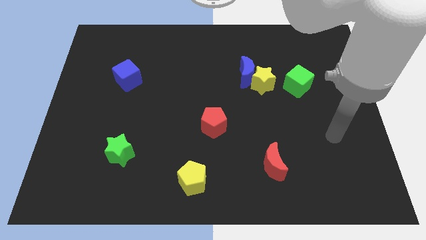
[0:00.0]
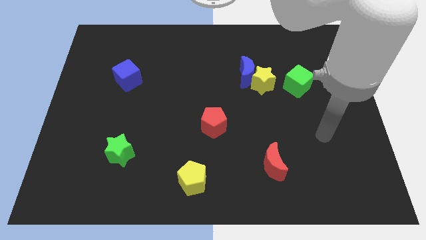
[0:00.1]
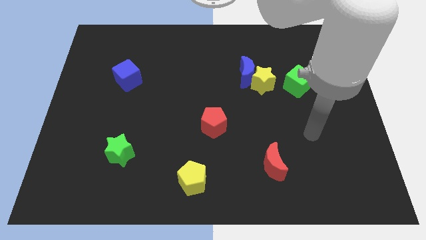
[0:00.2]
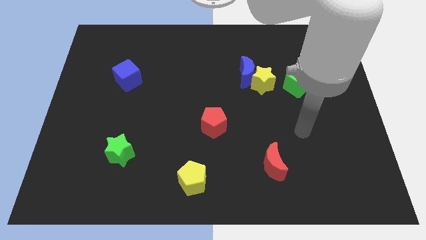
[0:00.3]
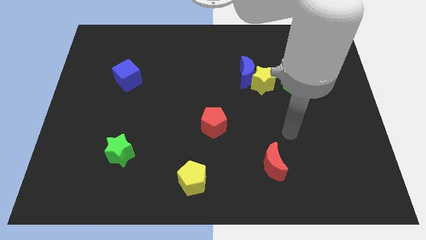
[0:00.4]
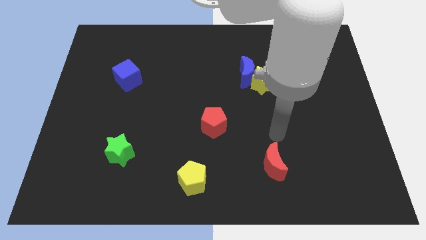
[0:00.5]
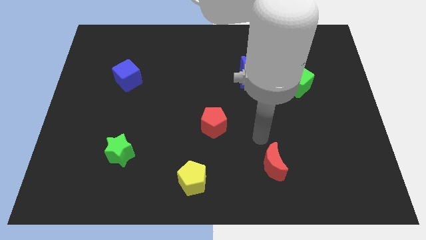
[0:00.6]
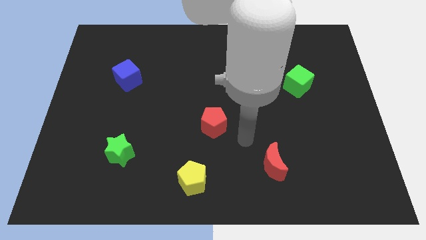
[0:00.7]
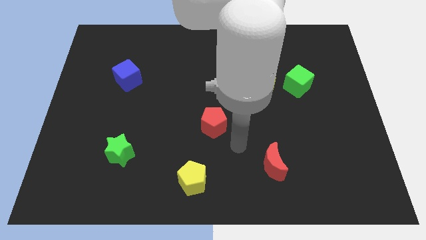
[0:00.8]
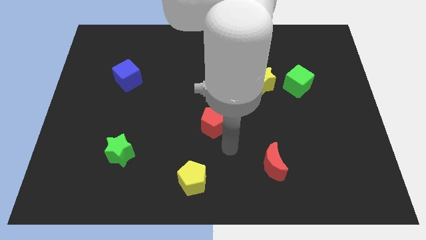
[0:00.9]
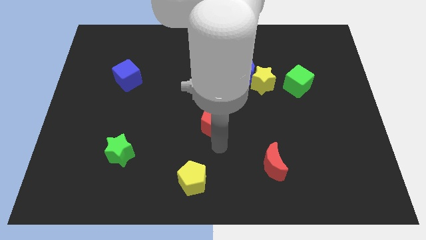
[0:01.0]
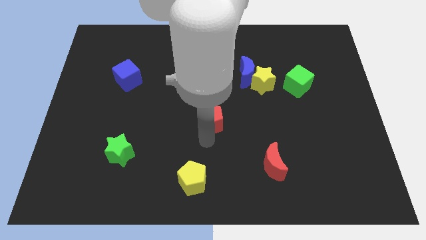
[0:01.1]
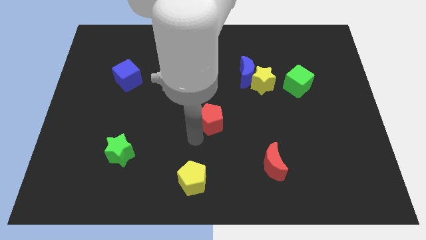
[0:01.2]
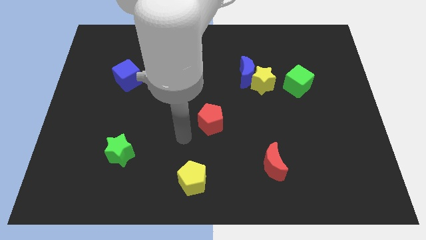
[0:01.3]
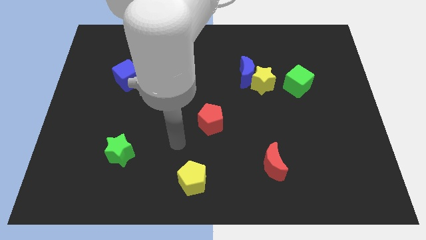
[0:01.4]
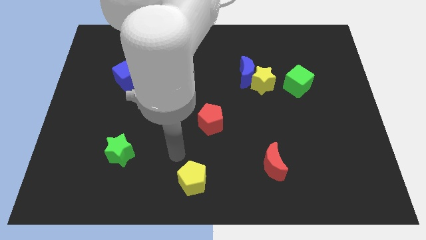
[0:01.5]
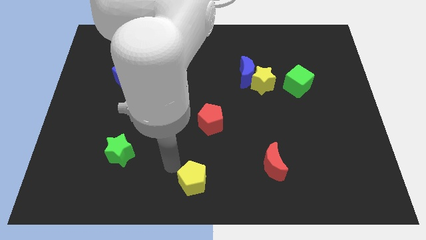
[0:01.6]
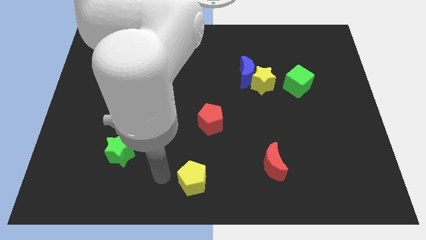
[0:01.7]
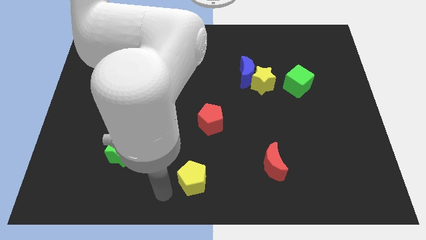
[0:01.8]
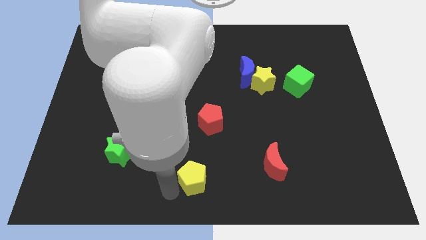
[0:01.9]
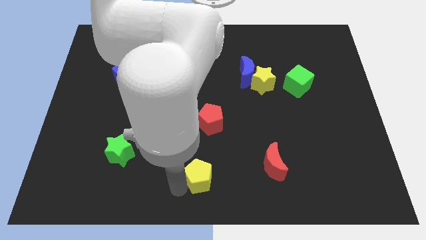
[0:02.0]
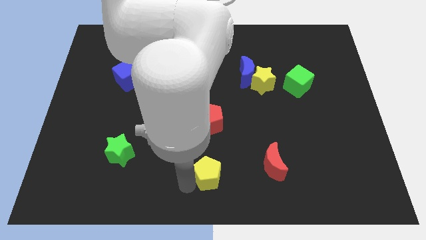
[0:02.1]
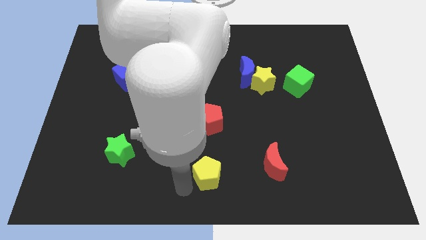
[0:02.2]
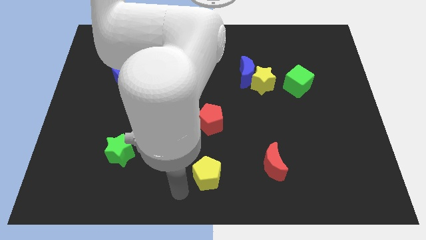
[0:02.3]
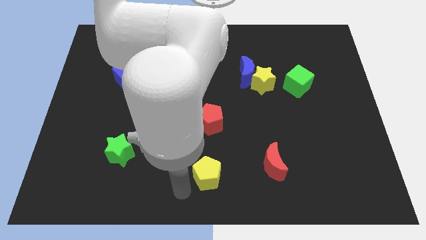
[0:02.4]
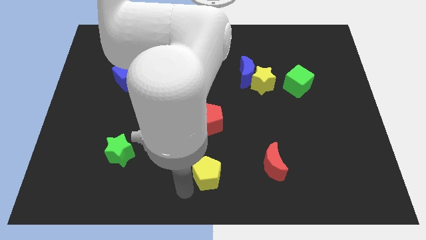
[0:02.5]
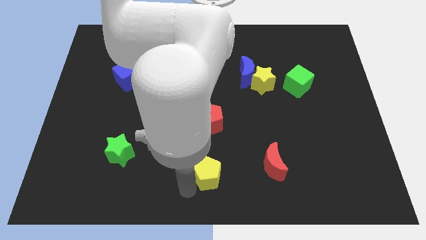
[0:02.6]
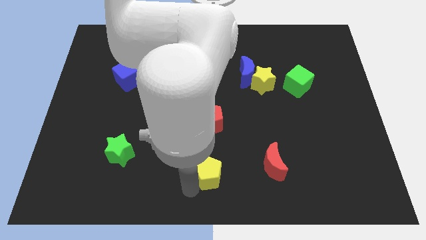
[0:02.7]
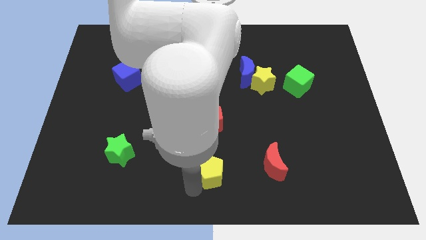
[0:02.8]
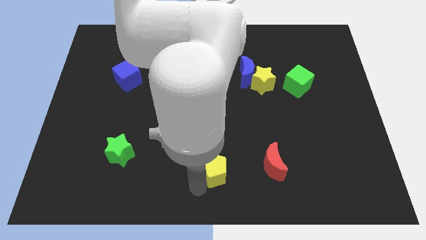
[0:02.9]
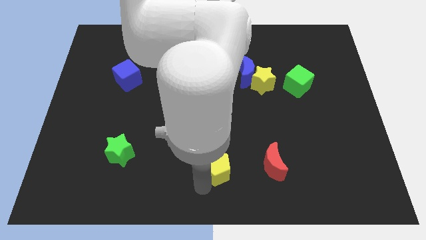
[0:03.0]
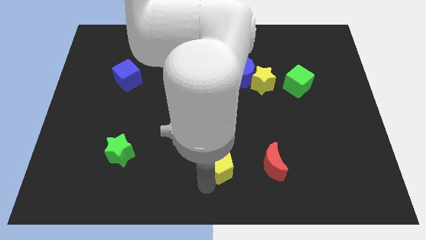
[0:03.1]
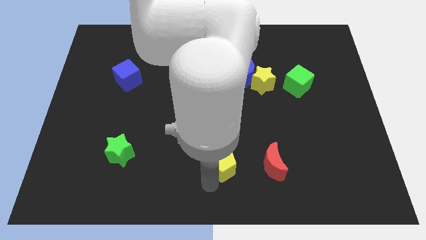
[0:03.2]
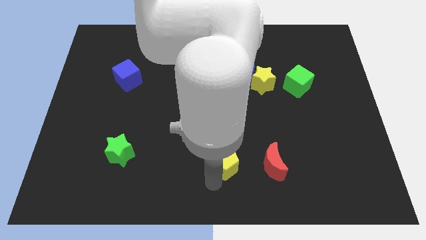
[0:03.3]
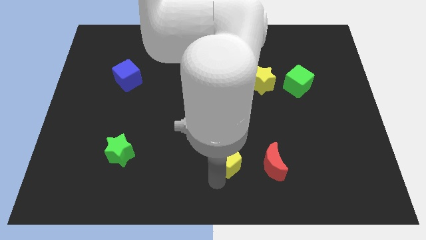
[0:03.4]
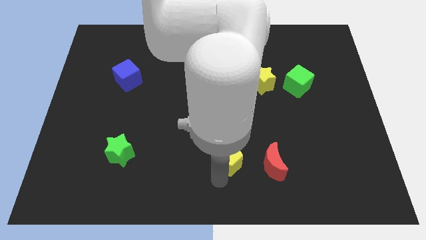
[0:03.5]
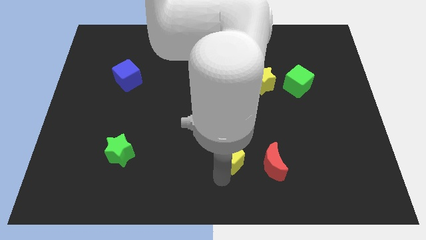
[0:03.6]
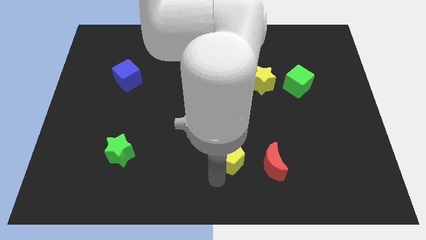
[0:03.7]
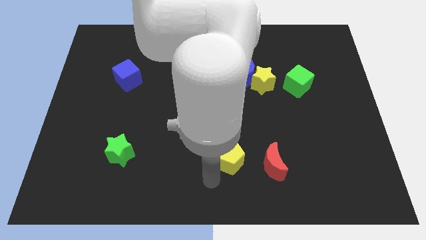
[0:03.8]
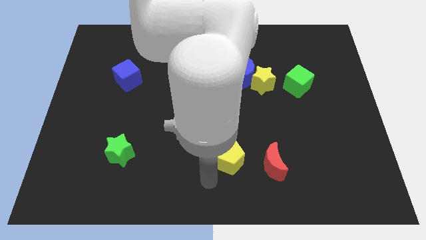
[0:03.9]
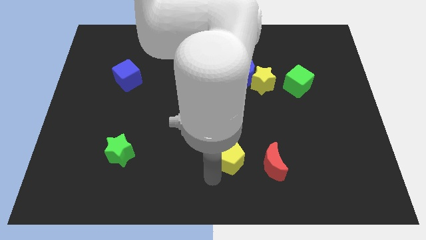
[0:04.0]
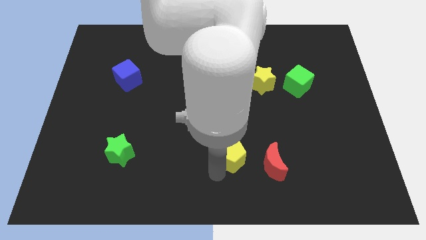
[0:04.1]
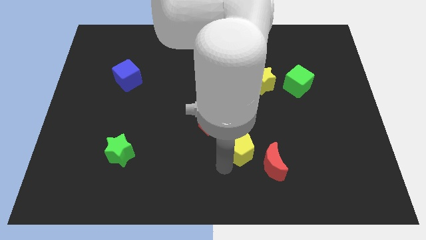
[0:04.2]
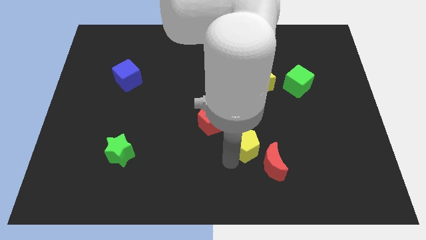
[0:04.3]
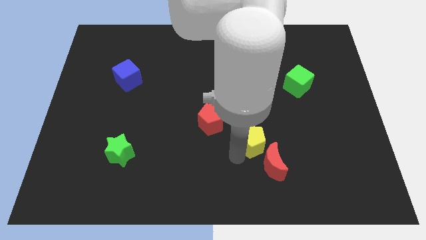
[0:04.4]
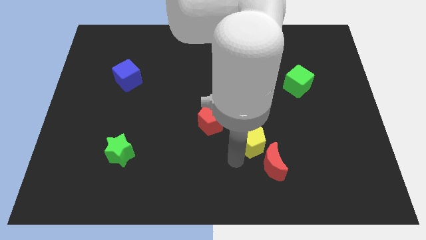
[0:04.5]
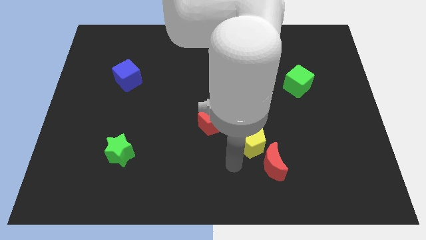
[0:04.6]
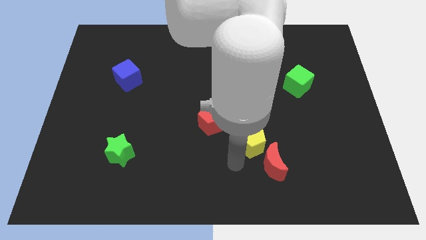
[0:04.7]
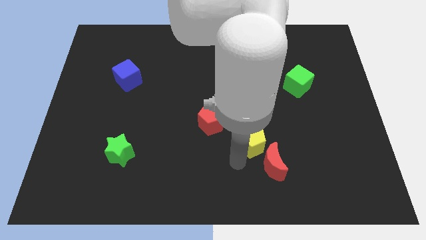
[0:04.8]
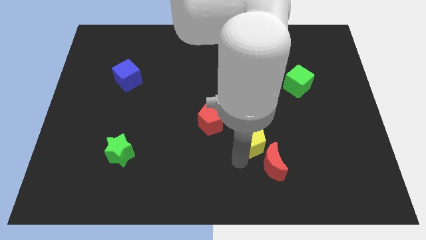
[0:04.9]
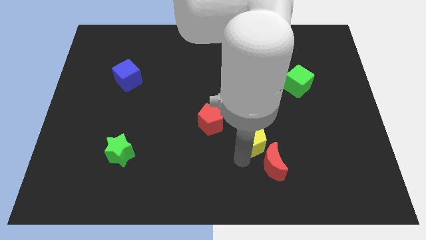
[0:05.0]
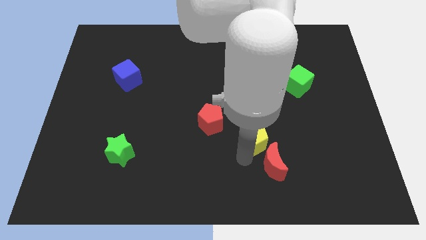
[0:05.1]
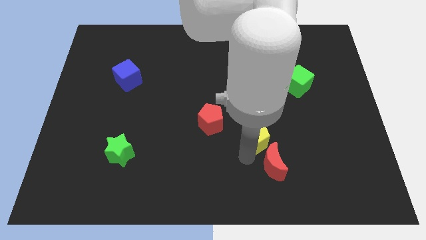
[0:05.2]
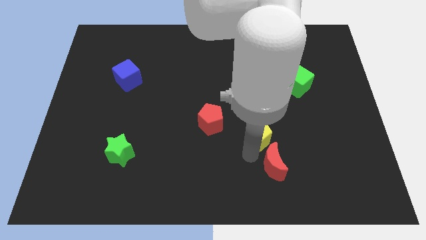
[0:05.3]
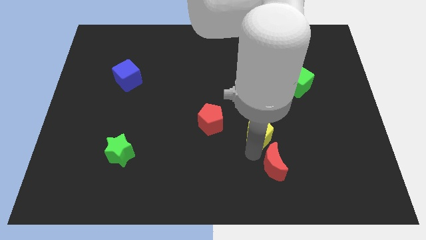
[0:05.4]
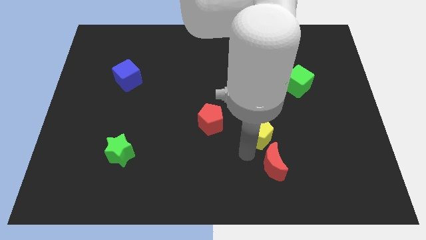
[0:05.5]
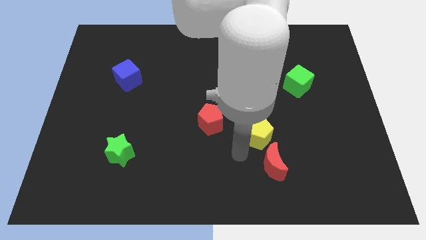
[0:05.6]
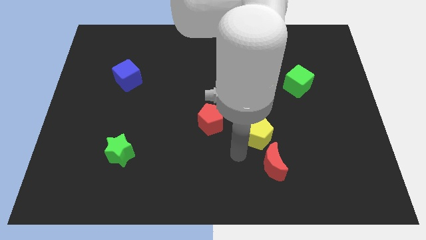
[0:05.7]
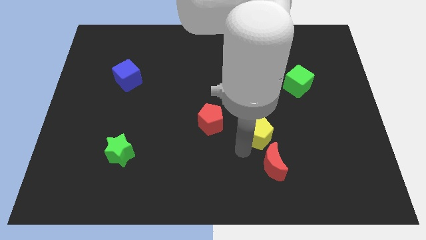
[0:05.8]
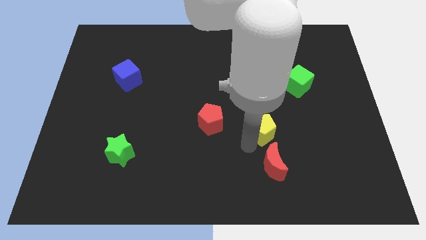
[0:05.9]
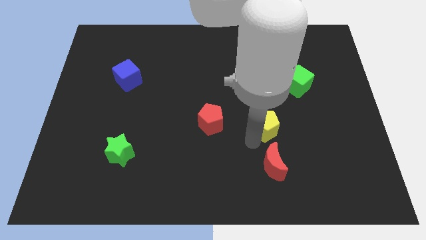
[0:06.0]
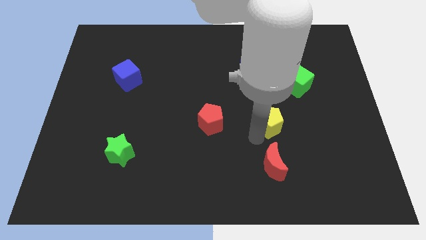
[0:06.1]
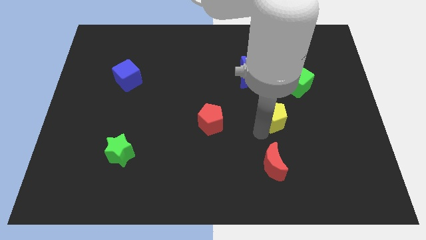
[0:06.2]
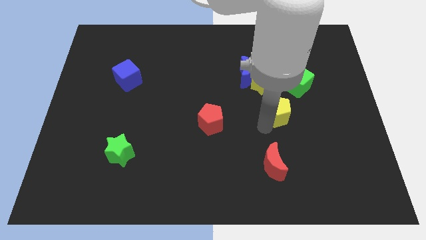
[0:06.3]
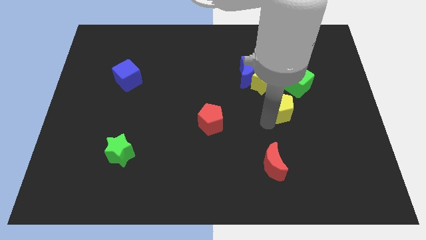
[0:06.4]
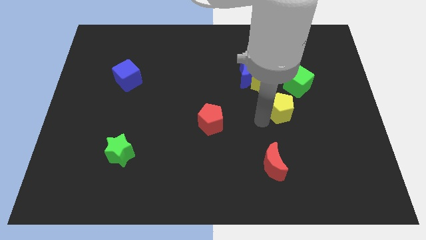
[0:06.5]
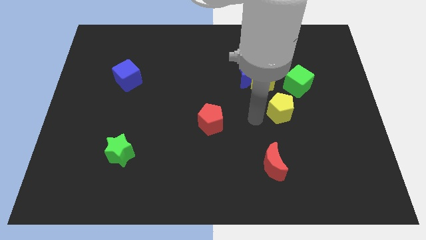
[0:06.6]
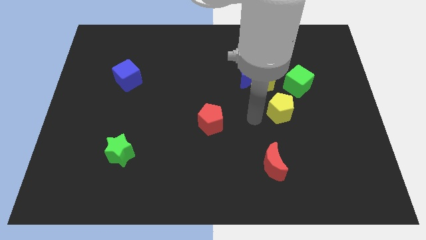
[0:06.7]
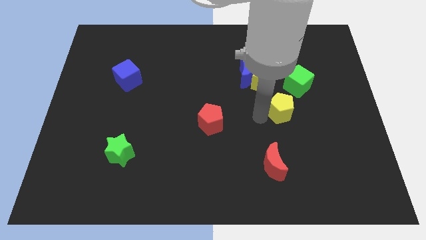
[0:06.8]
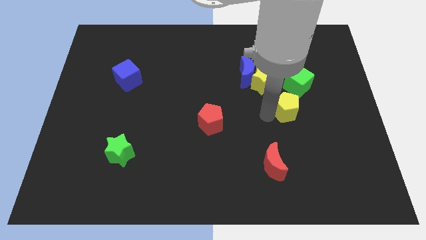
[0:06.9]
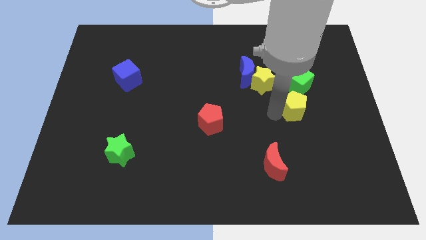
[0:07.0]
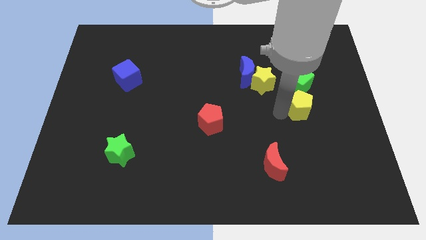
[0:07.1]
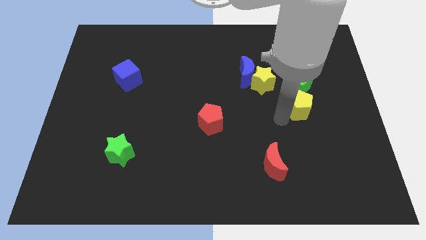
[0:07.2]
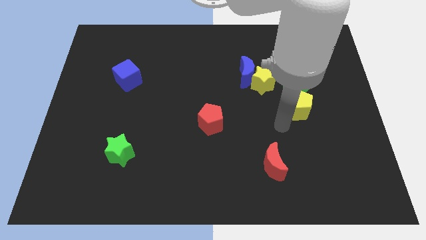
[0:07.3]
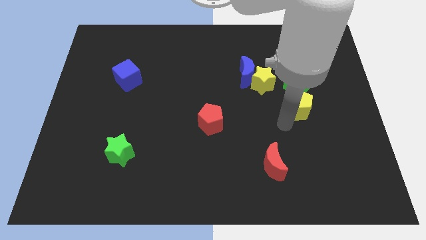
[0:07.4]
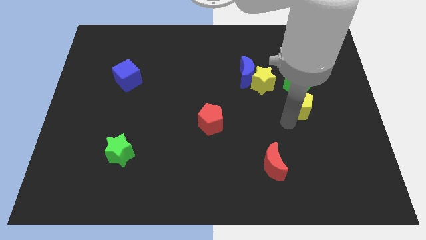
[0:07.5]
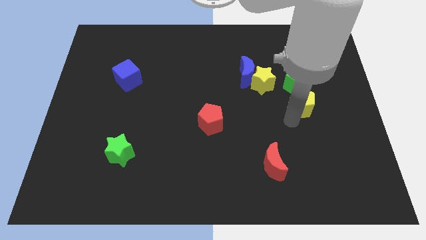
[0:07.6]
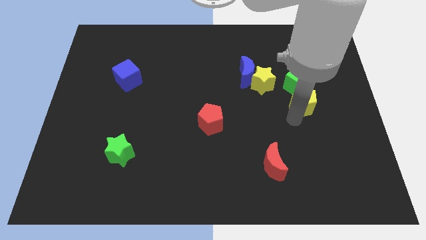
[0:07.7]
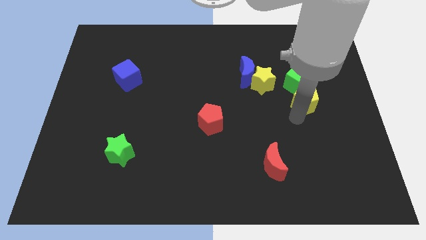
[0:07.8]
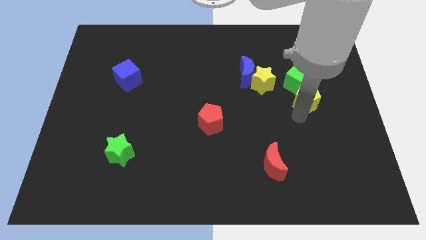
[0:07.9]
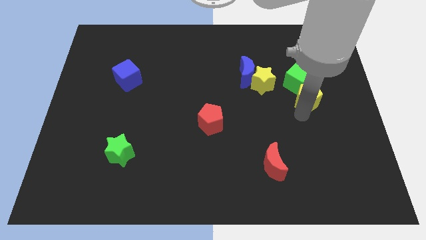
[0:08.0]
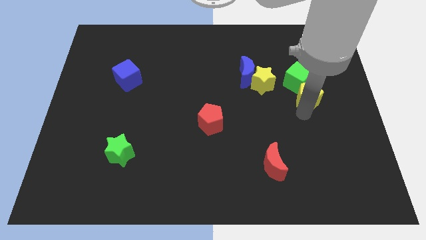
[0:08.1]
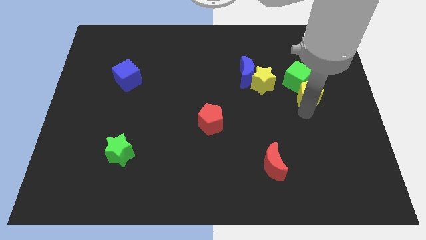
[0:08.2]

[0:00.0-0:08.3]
push the yellow pentagon to the right side of the yellow star

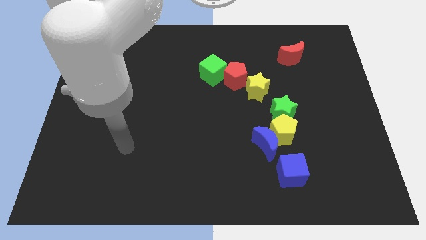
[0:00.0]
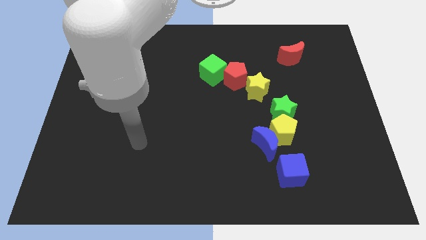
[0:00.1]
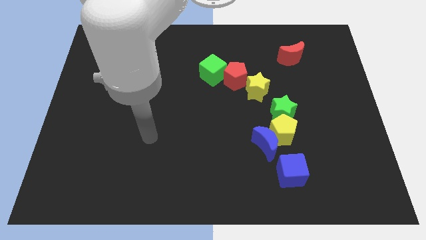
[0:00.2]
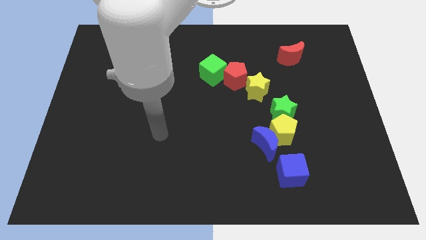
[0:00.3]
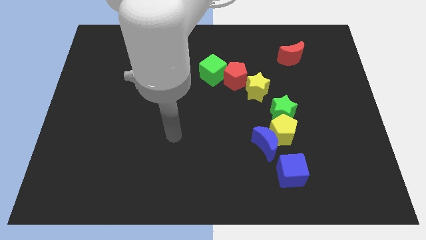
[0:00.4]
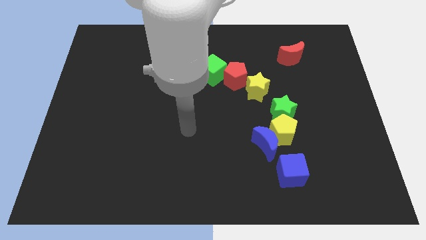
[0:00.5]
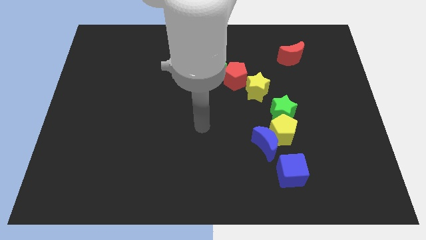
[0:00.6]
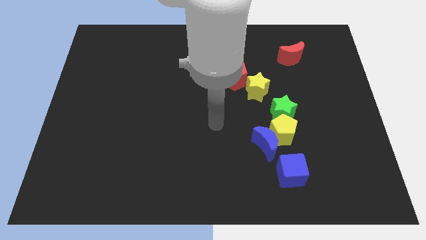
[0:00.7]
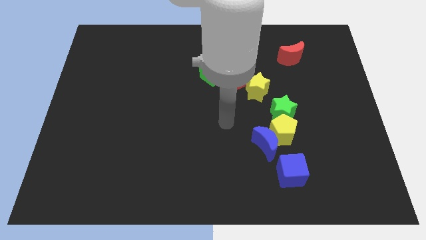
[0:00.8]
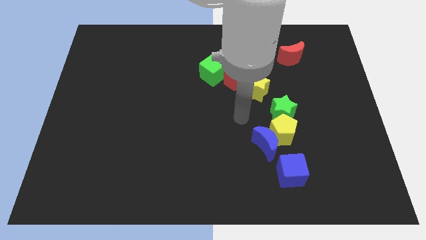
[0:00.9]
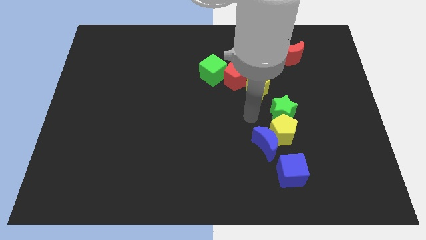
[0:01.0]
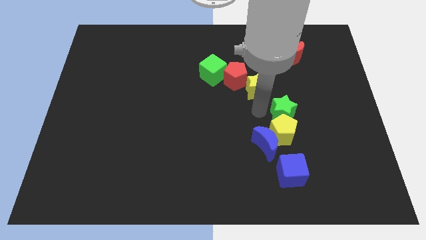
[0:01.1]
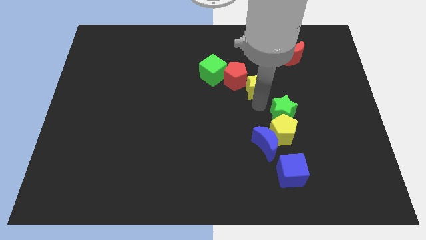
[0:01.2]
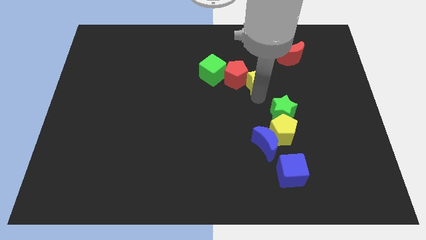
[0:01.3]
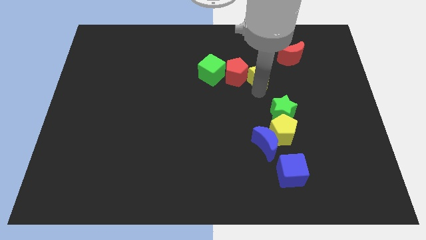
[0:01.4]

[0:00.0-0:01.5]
put the yellow star to the top right of the red pentagon
